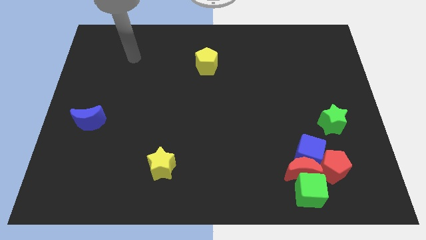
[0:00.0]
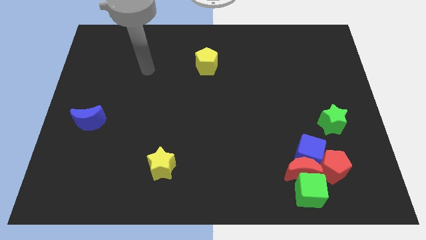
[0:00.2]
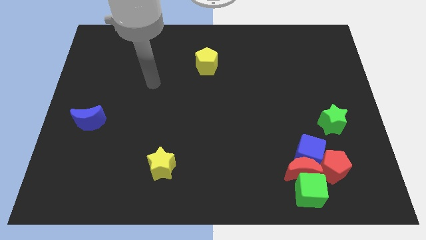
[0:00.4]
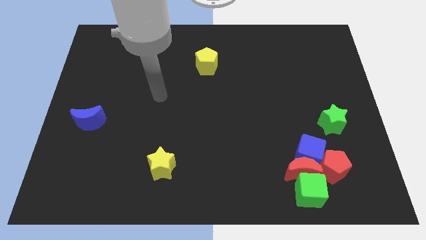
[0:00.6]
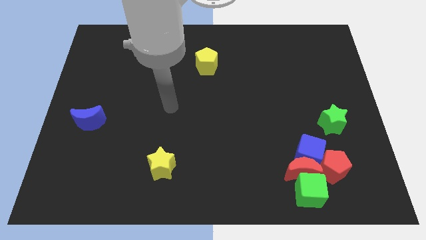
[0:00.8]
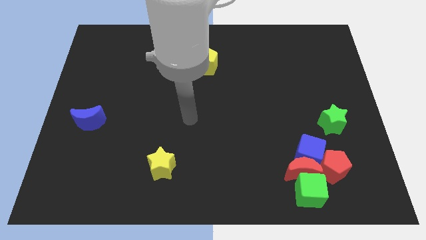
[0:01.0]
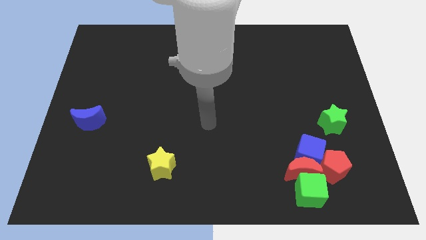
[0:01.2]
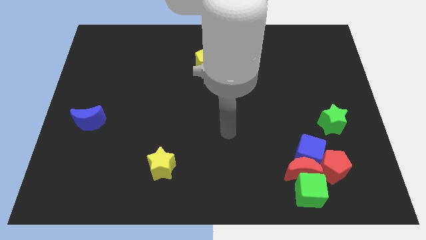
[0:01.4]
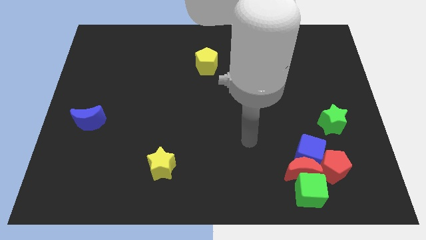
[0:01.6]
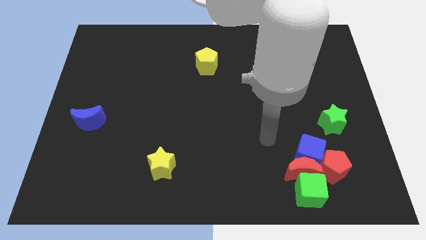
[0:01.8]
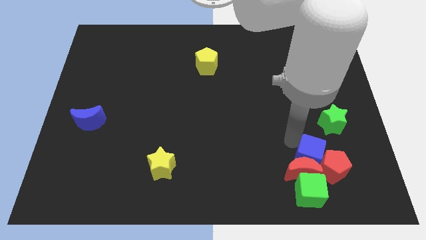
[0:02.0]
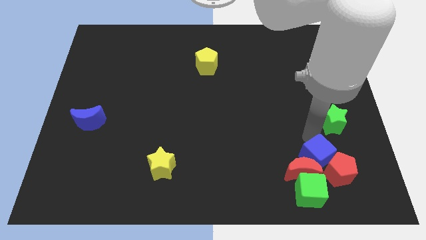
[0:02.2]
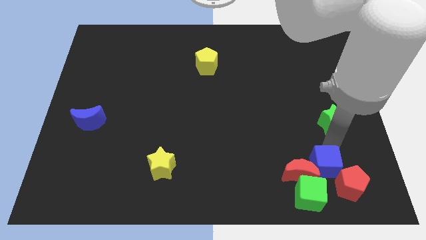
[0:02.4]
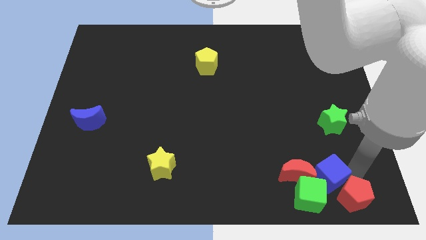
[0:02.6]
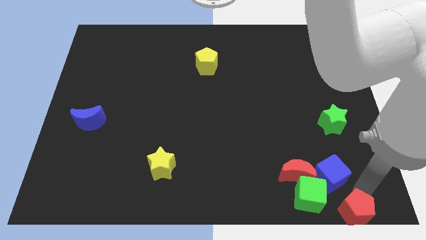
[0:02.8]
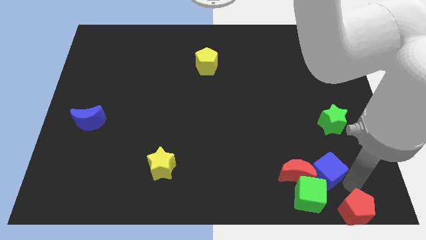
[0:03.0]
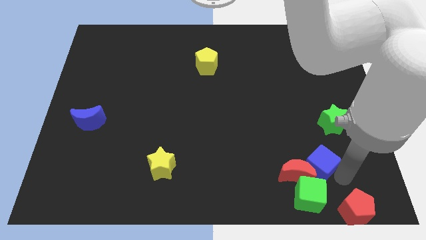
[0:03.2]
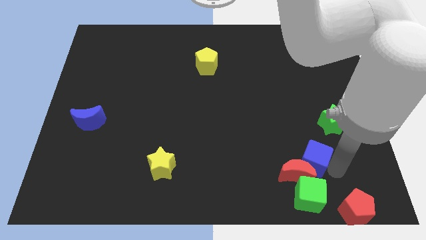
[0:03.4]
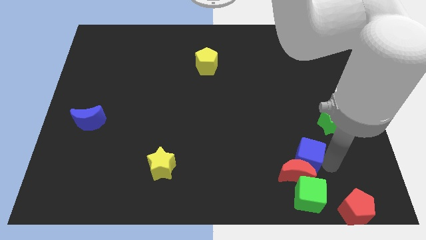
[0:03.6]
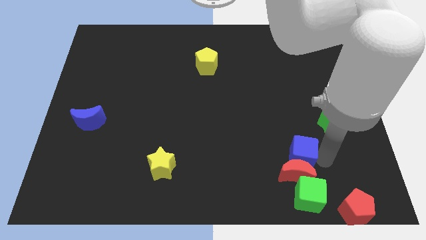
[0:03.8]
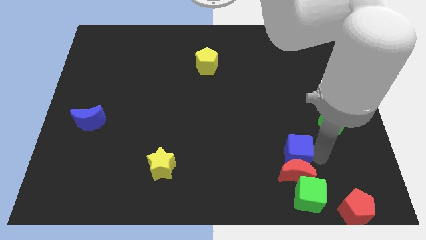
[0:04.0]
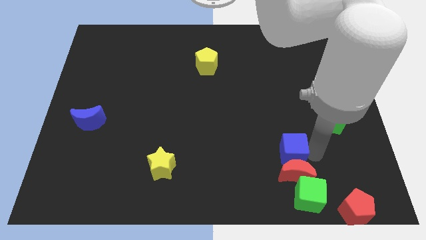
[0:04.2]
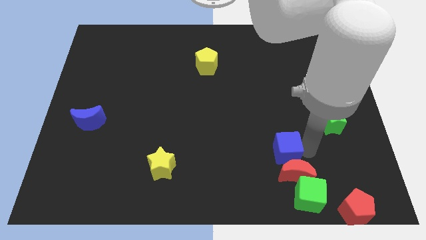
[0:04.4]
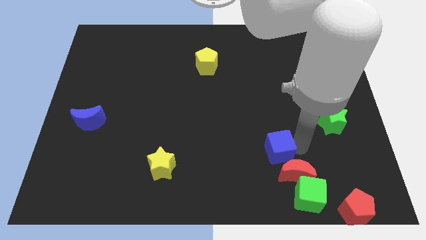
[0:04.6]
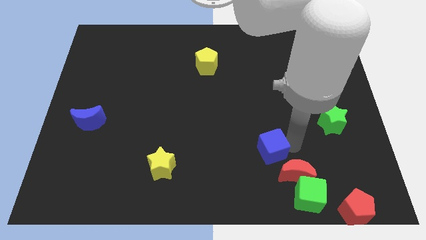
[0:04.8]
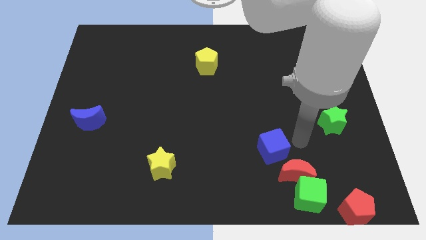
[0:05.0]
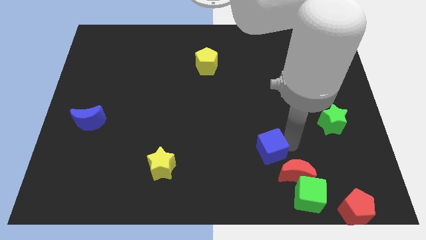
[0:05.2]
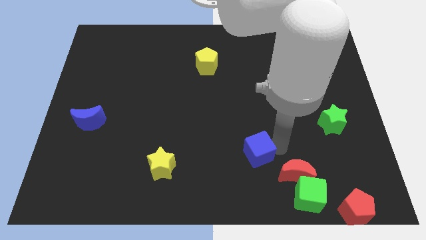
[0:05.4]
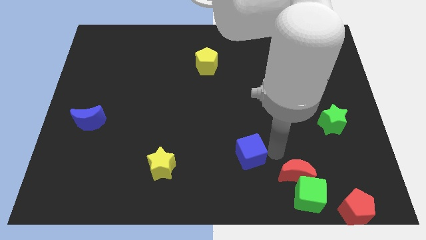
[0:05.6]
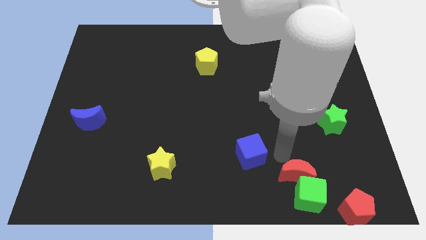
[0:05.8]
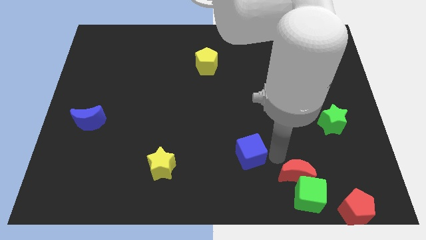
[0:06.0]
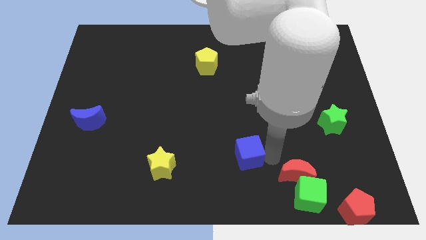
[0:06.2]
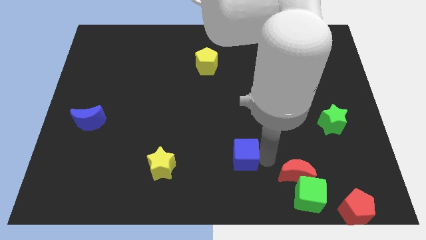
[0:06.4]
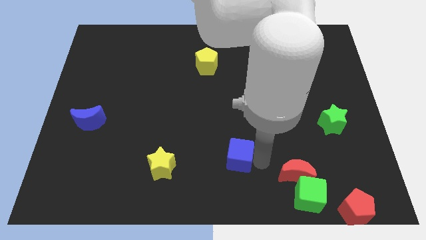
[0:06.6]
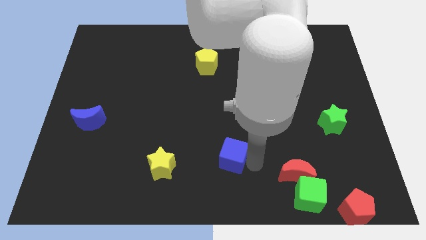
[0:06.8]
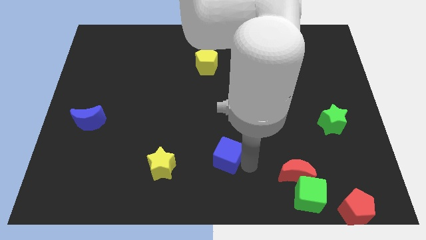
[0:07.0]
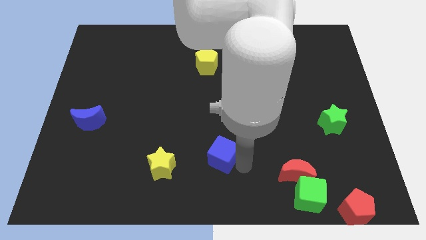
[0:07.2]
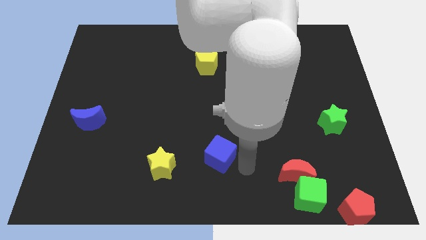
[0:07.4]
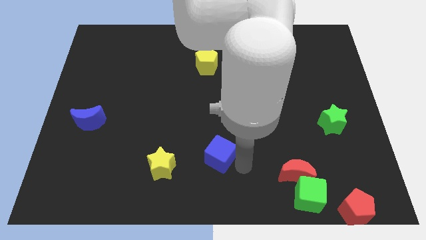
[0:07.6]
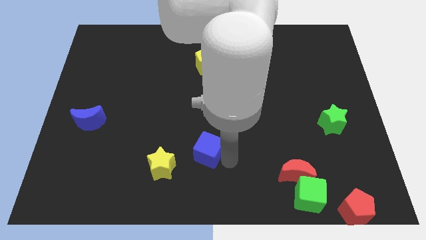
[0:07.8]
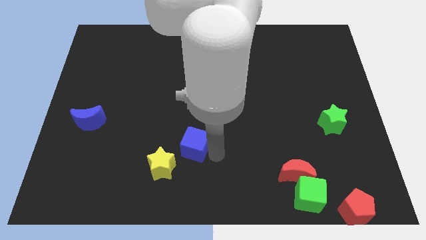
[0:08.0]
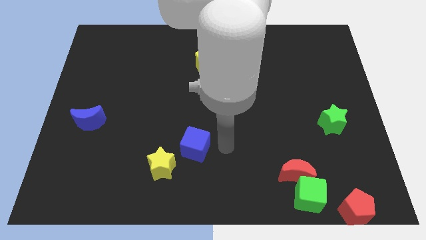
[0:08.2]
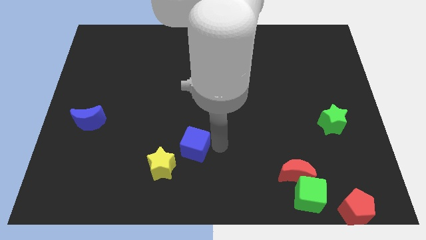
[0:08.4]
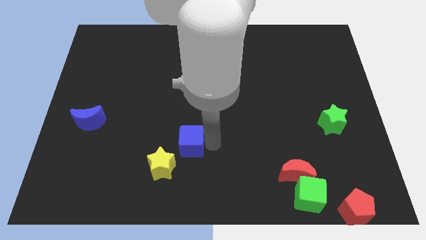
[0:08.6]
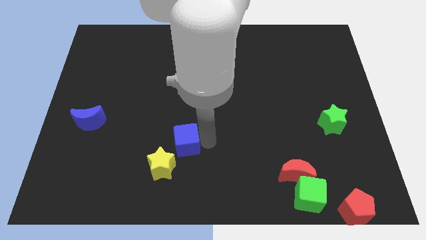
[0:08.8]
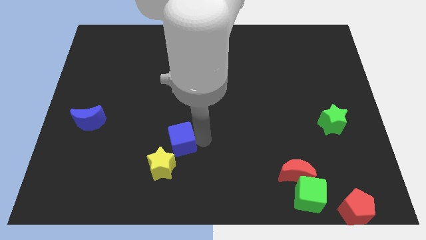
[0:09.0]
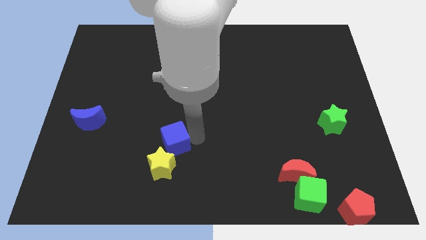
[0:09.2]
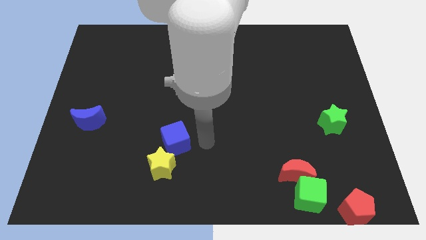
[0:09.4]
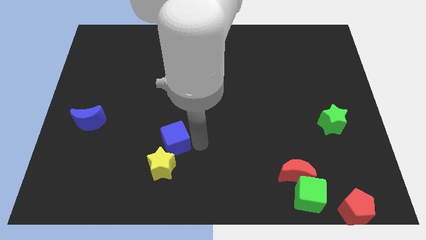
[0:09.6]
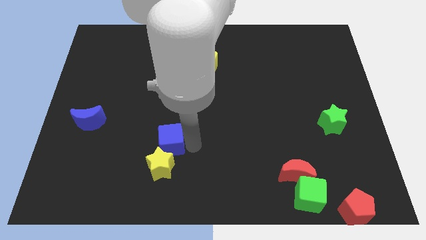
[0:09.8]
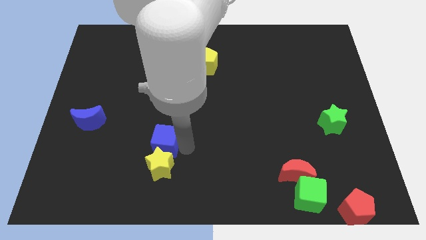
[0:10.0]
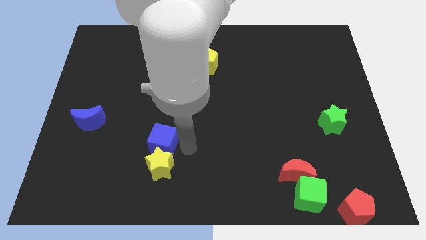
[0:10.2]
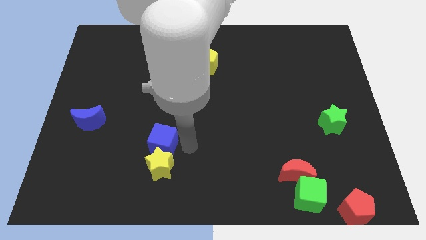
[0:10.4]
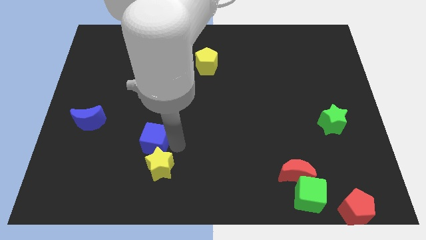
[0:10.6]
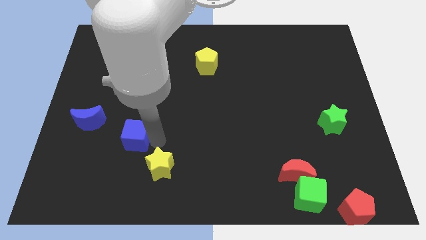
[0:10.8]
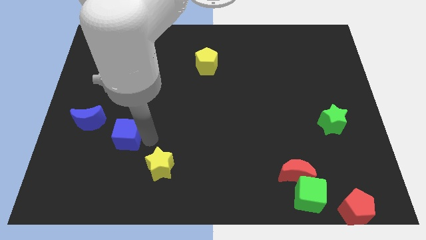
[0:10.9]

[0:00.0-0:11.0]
push the blue cube diagonally down and to the right of the blue moon

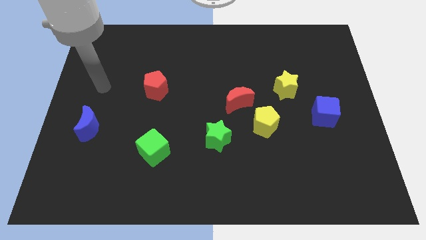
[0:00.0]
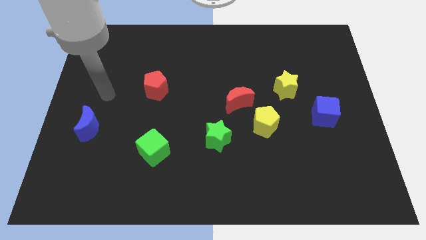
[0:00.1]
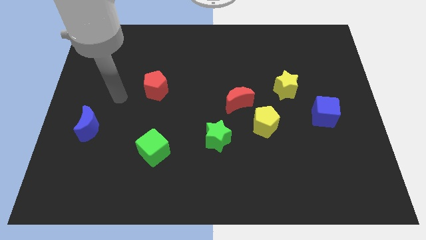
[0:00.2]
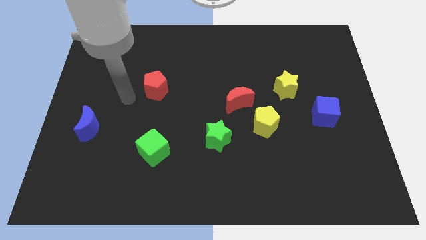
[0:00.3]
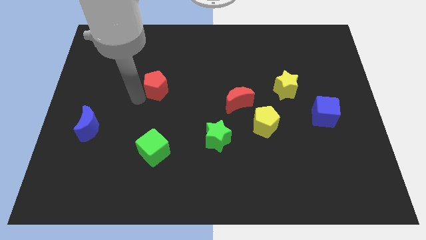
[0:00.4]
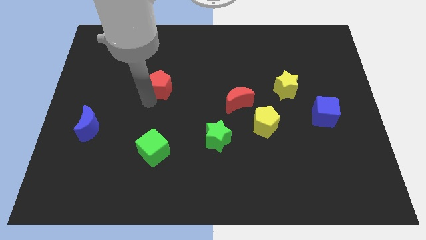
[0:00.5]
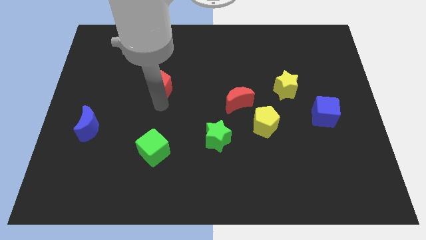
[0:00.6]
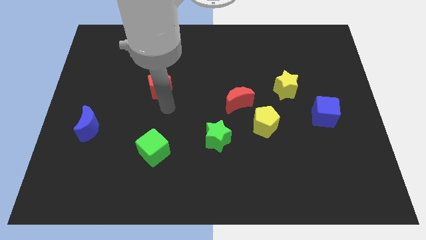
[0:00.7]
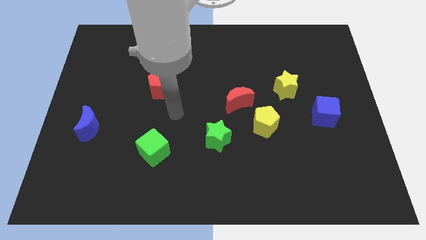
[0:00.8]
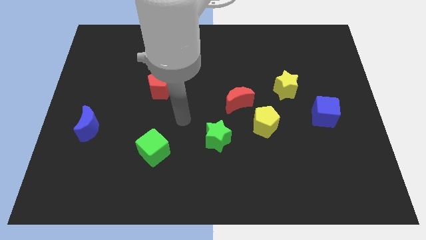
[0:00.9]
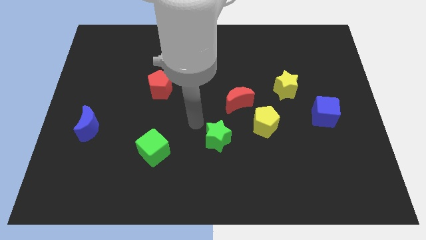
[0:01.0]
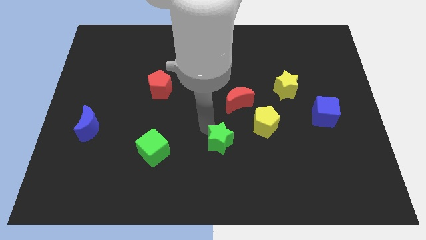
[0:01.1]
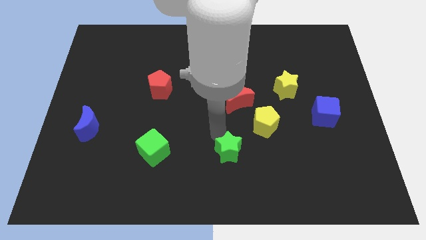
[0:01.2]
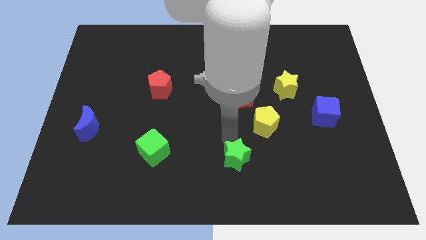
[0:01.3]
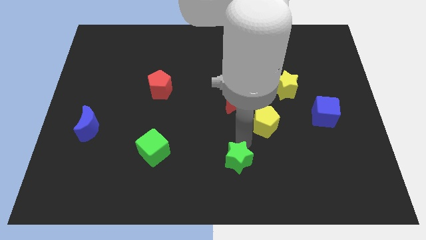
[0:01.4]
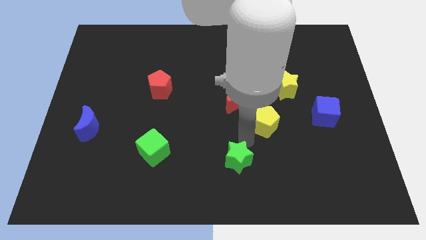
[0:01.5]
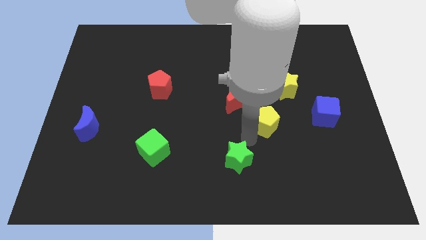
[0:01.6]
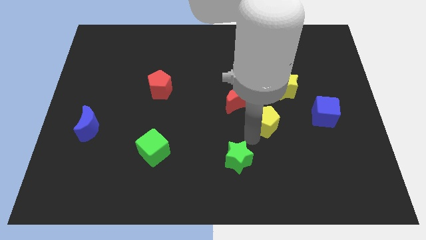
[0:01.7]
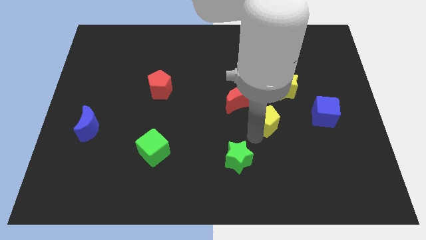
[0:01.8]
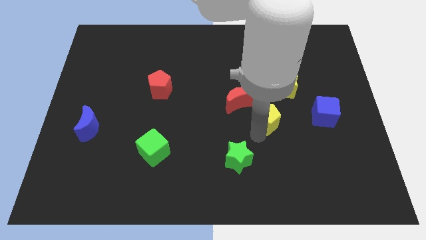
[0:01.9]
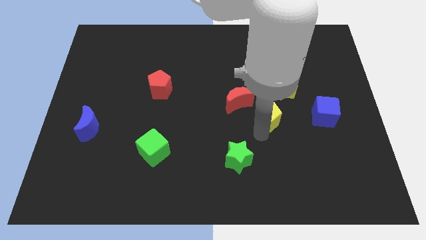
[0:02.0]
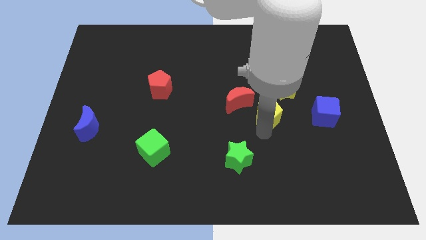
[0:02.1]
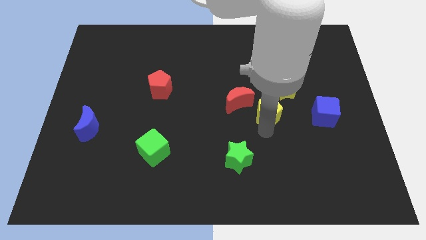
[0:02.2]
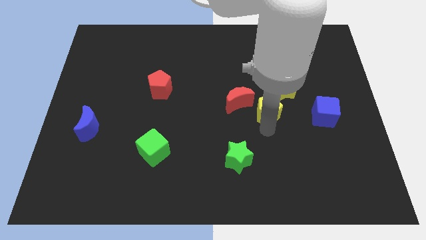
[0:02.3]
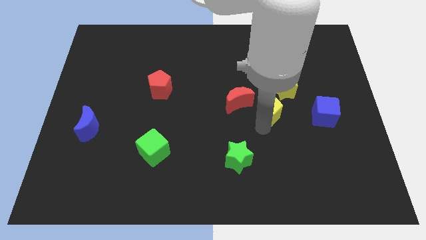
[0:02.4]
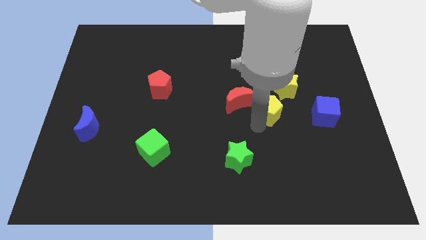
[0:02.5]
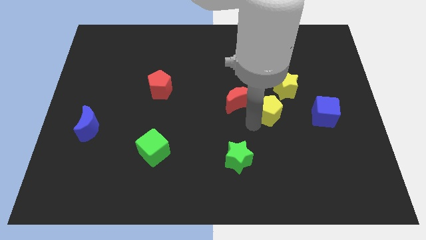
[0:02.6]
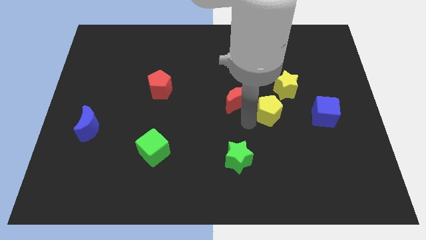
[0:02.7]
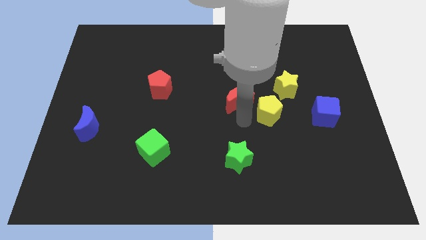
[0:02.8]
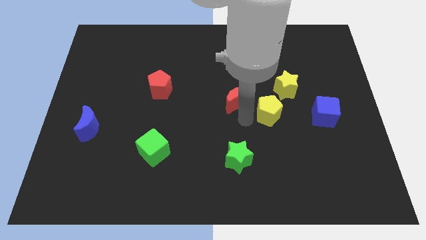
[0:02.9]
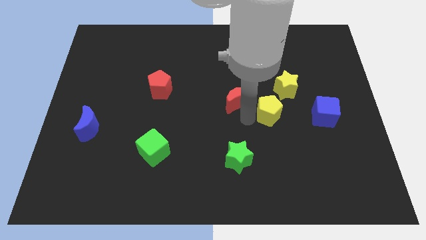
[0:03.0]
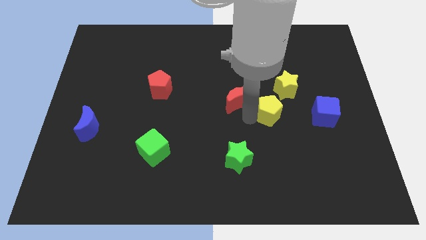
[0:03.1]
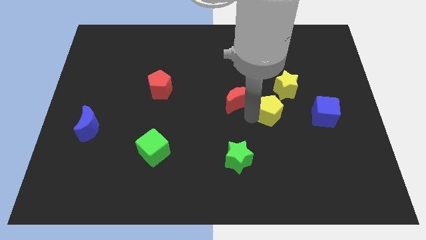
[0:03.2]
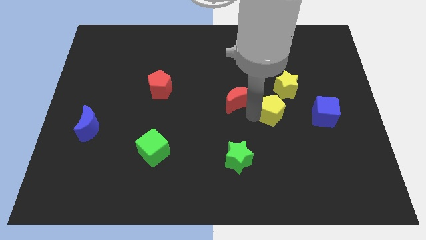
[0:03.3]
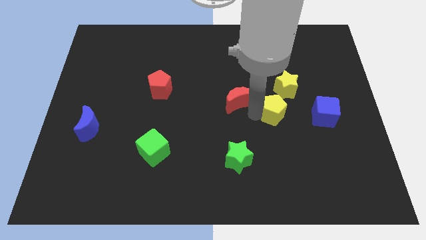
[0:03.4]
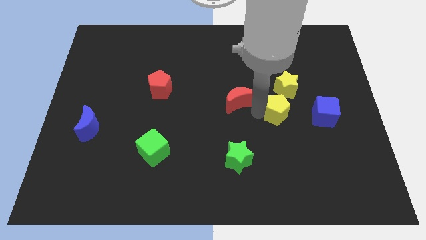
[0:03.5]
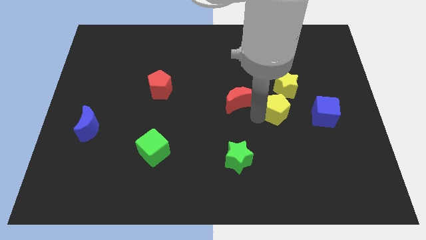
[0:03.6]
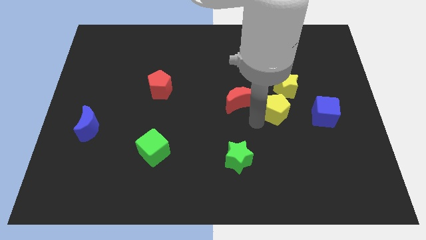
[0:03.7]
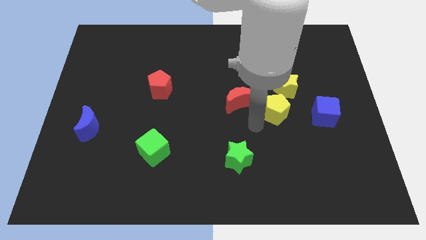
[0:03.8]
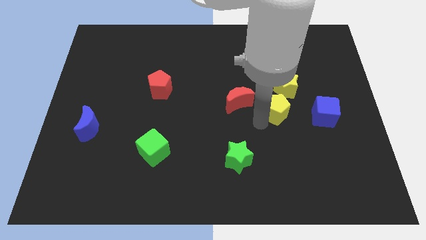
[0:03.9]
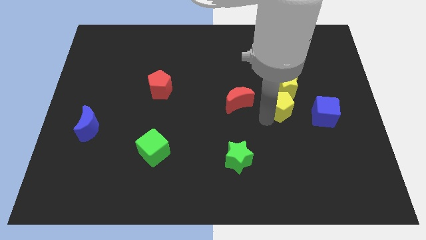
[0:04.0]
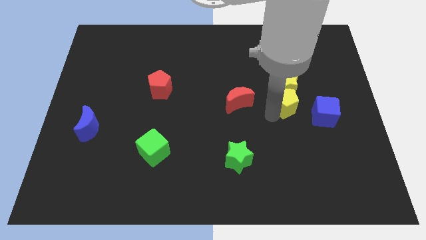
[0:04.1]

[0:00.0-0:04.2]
push the yellow pentagon to the top left of the blue cube
